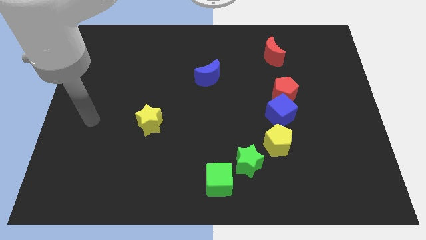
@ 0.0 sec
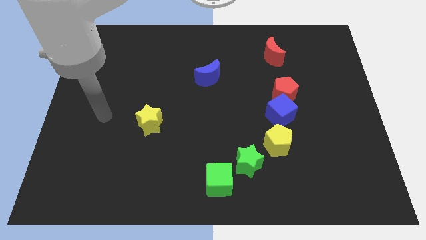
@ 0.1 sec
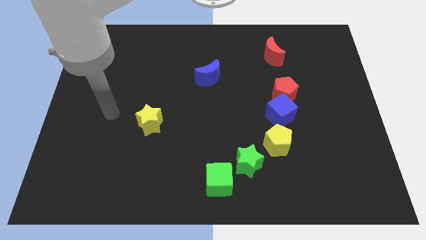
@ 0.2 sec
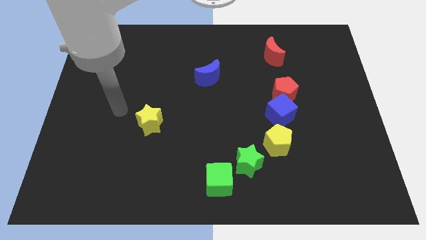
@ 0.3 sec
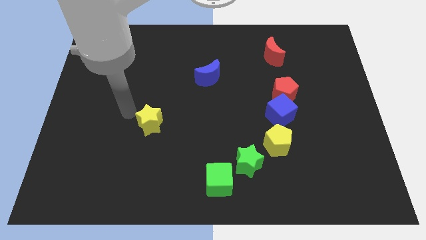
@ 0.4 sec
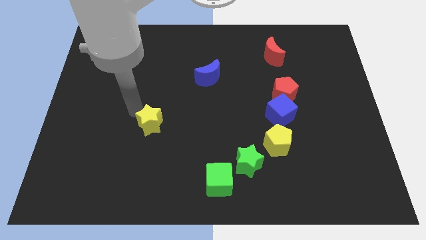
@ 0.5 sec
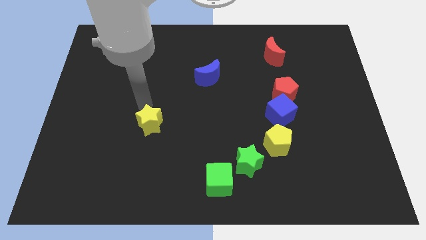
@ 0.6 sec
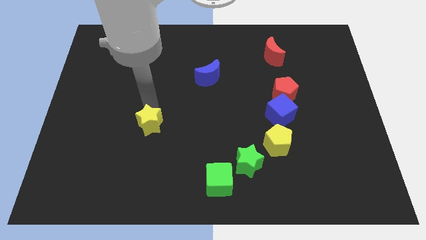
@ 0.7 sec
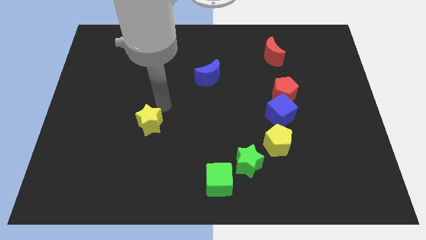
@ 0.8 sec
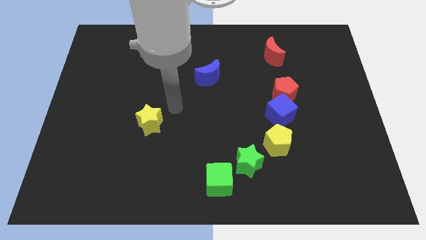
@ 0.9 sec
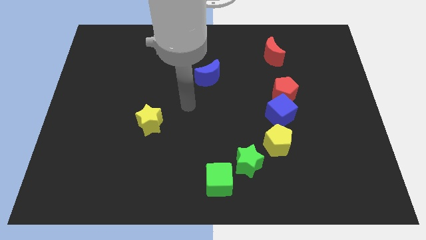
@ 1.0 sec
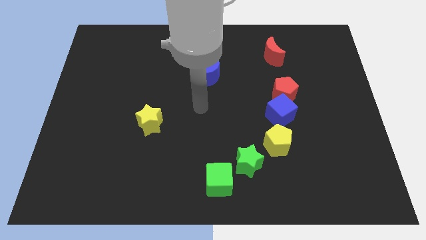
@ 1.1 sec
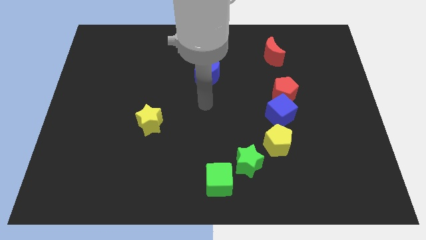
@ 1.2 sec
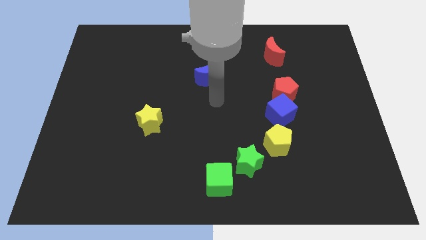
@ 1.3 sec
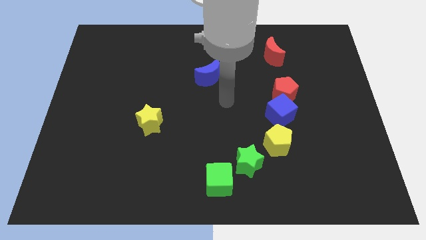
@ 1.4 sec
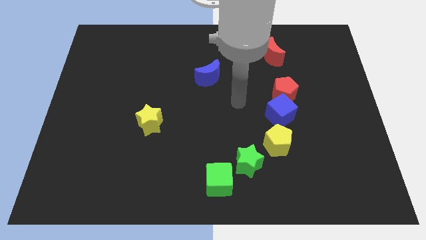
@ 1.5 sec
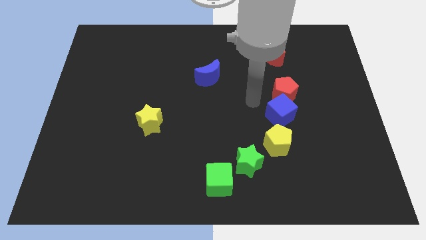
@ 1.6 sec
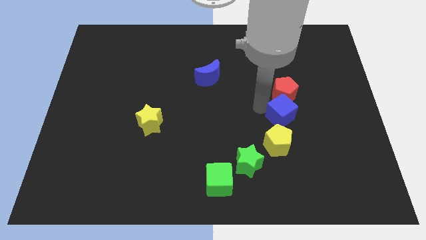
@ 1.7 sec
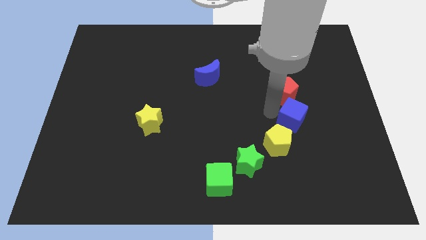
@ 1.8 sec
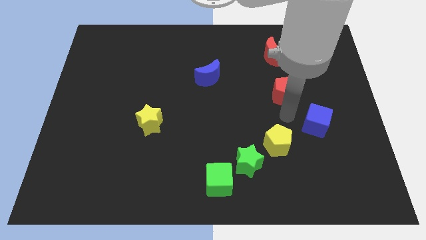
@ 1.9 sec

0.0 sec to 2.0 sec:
separate the red pentagon from the blue cube

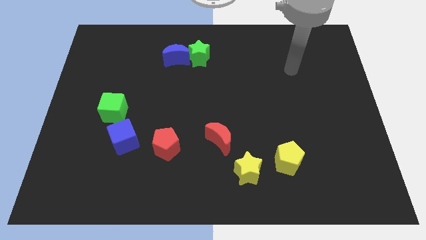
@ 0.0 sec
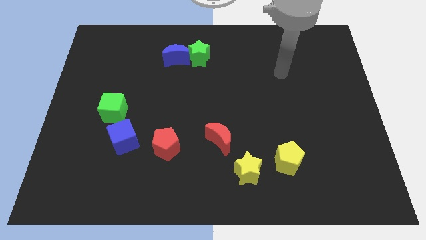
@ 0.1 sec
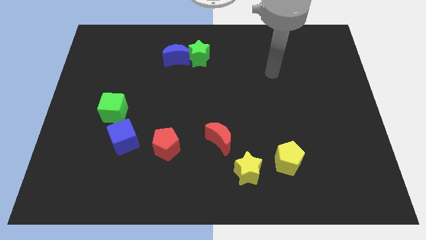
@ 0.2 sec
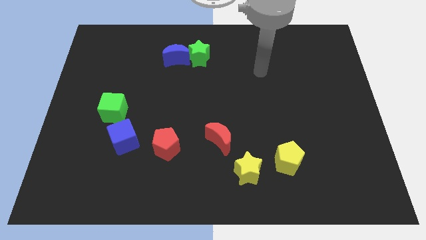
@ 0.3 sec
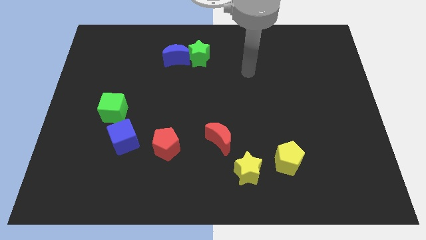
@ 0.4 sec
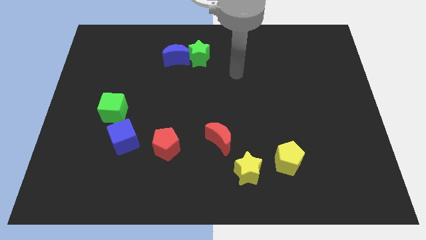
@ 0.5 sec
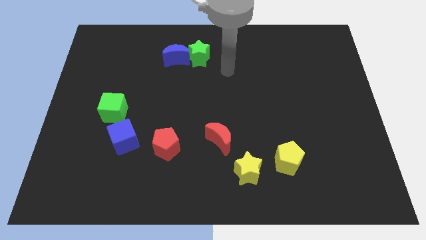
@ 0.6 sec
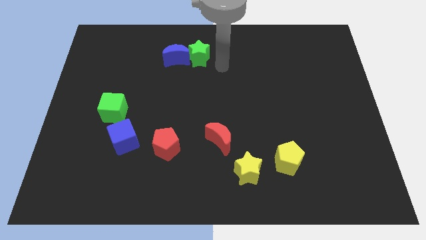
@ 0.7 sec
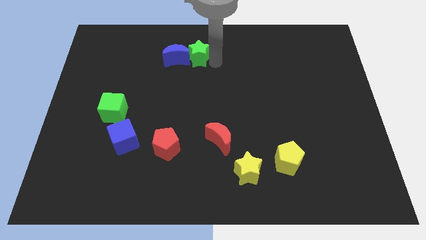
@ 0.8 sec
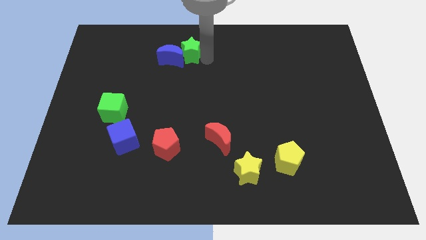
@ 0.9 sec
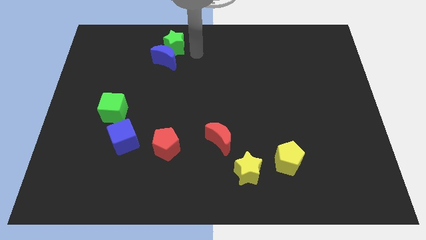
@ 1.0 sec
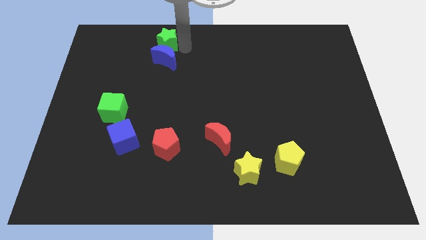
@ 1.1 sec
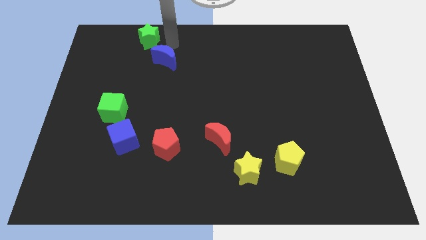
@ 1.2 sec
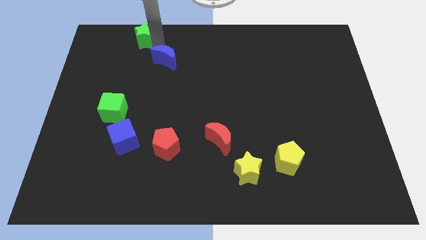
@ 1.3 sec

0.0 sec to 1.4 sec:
move the blue moon away from the green star

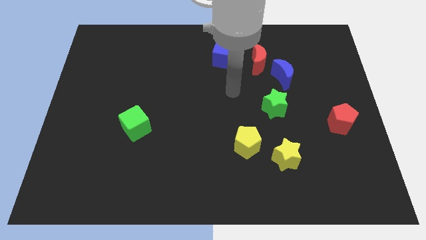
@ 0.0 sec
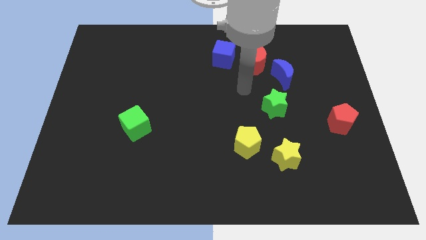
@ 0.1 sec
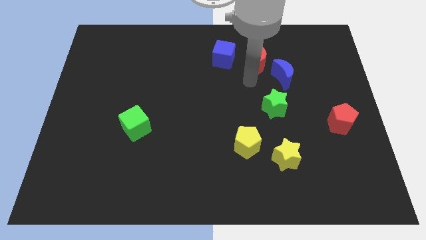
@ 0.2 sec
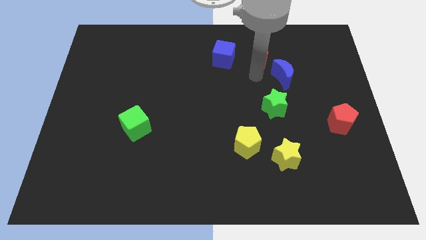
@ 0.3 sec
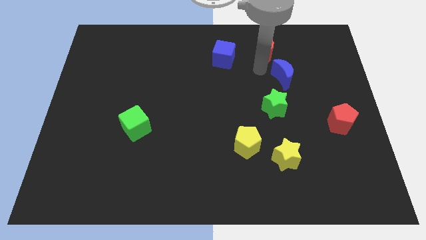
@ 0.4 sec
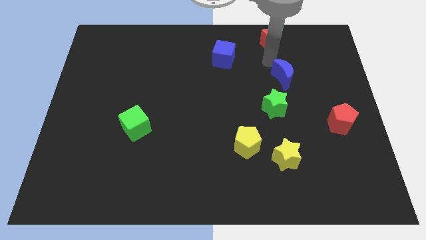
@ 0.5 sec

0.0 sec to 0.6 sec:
separate the blue moon from the red moon

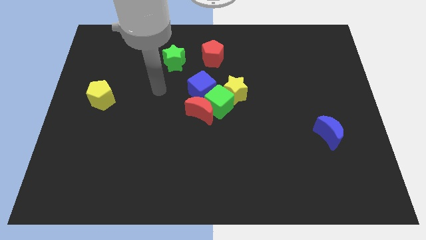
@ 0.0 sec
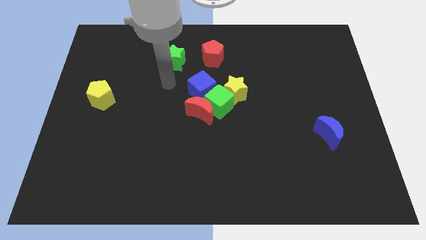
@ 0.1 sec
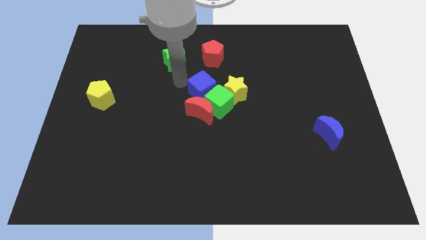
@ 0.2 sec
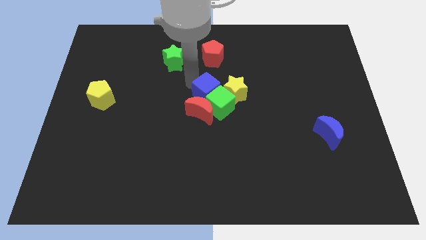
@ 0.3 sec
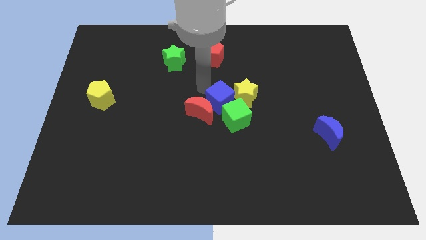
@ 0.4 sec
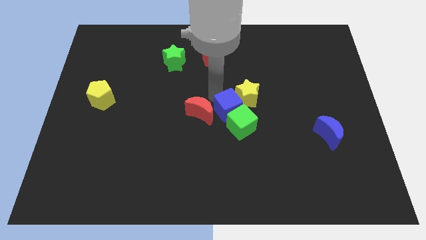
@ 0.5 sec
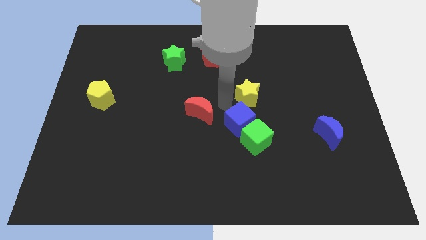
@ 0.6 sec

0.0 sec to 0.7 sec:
separate the green cube from the group

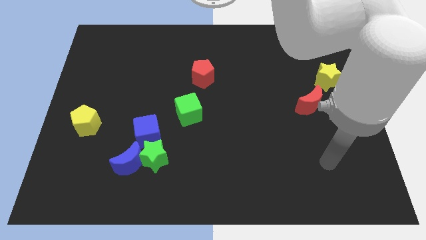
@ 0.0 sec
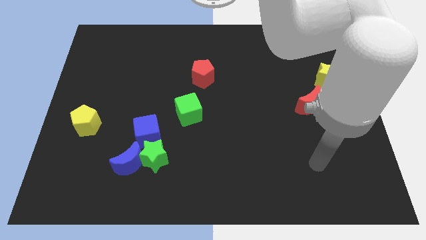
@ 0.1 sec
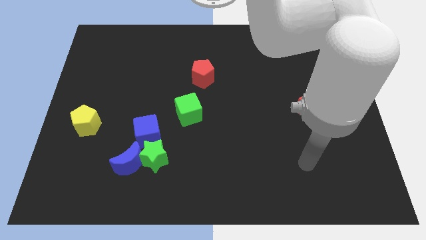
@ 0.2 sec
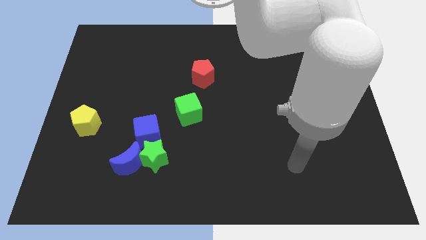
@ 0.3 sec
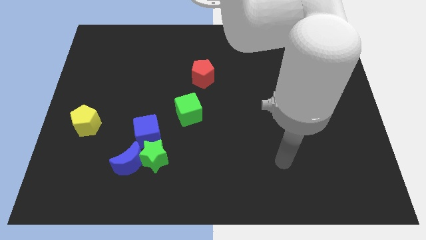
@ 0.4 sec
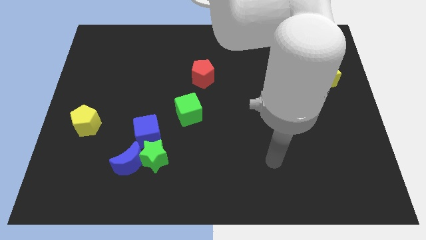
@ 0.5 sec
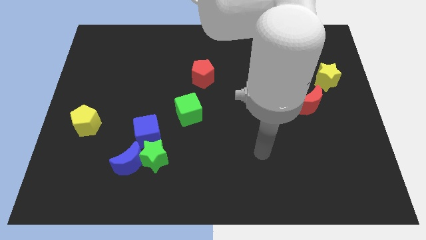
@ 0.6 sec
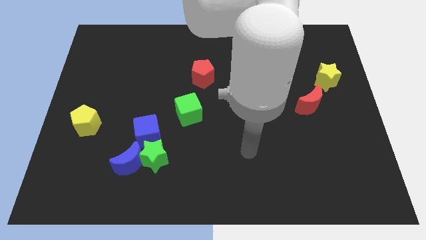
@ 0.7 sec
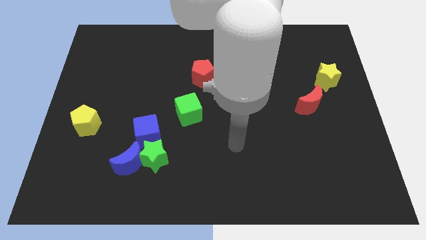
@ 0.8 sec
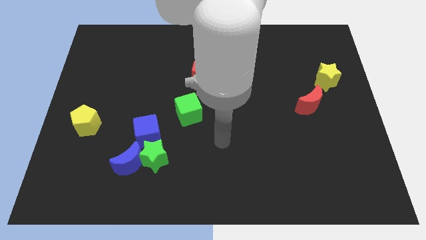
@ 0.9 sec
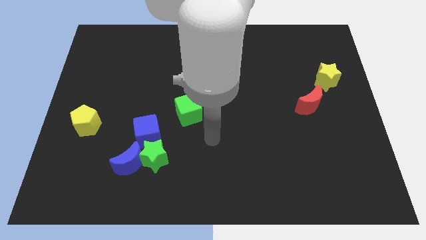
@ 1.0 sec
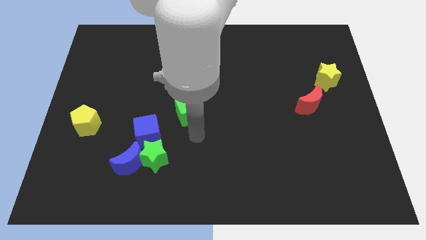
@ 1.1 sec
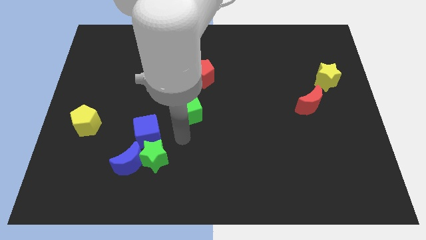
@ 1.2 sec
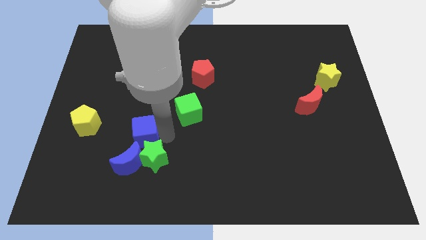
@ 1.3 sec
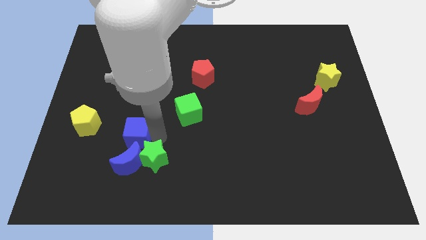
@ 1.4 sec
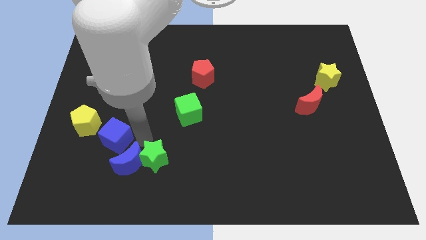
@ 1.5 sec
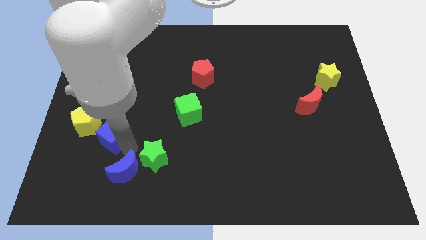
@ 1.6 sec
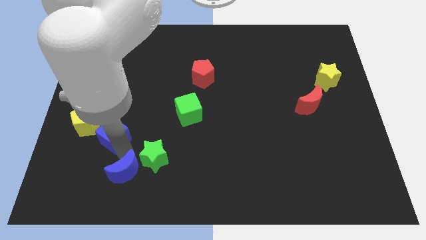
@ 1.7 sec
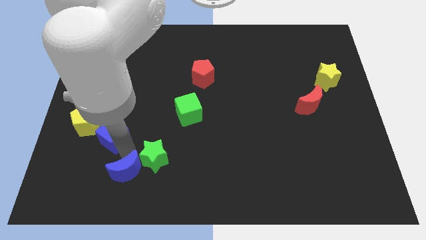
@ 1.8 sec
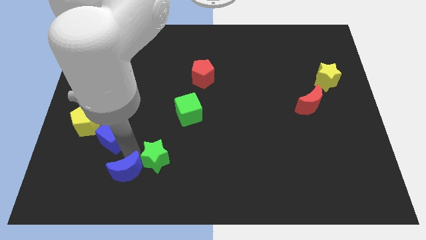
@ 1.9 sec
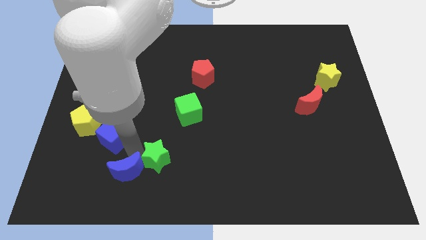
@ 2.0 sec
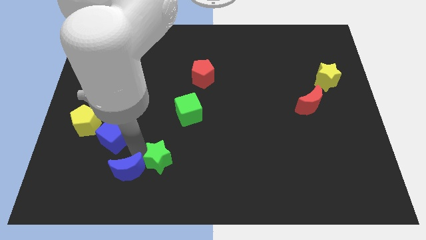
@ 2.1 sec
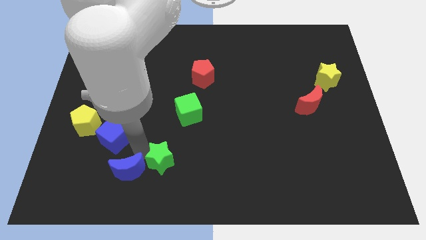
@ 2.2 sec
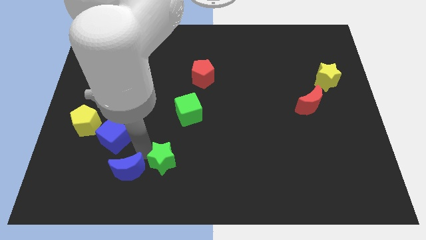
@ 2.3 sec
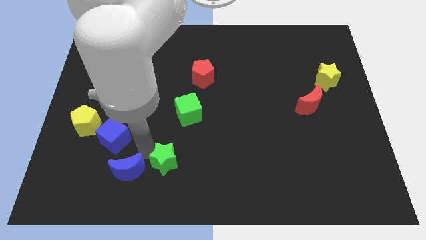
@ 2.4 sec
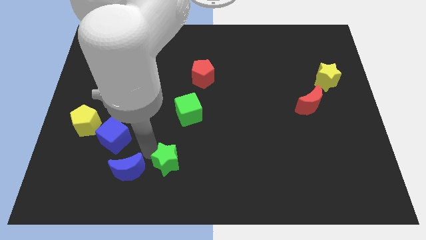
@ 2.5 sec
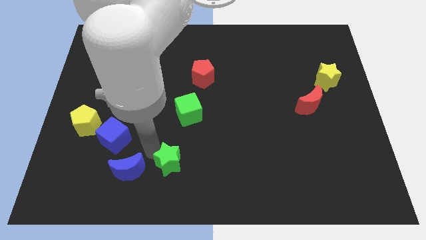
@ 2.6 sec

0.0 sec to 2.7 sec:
separate the green star from the blue moon and blue cube

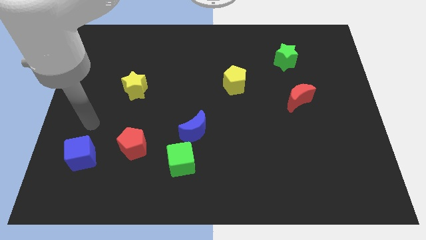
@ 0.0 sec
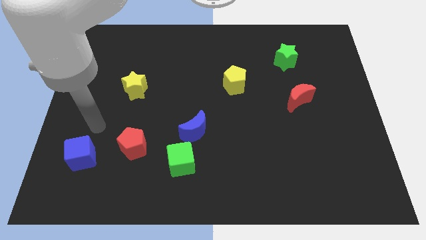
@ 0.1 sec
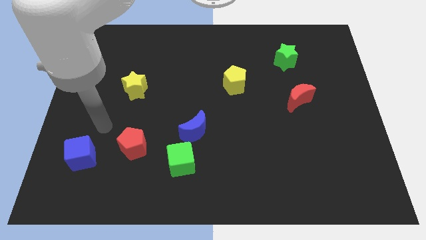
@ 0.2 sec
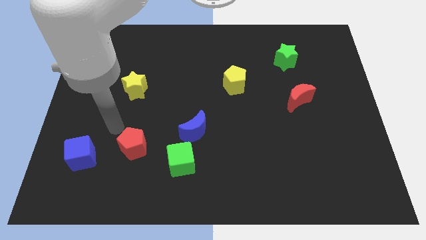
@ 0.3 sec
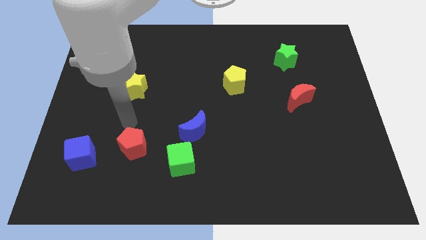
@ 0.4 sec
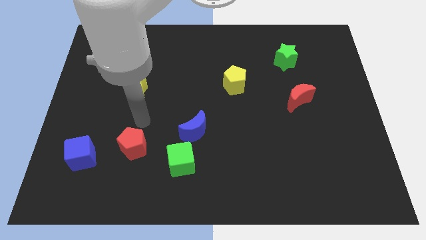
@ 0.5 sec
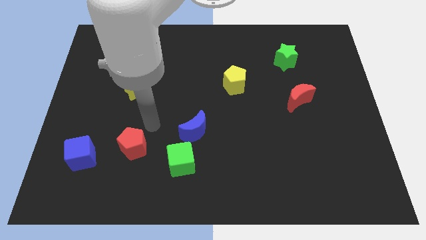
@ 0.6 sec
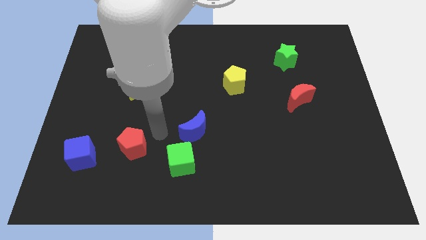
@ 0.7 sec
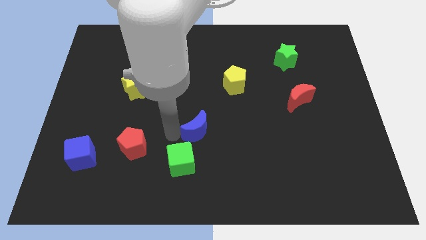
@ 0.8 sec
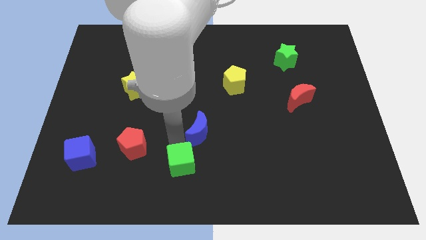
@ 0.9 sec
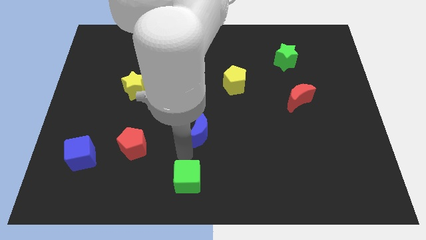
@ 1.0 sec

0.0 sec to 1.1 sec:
move the blue moon away from the green cube

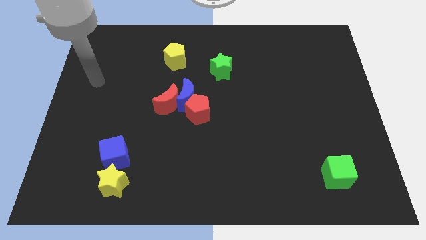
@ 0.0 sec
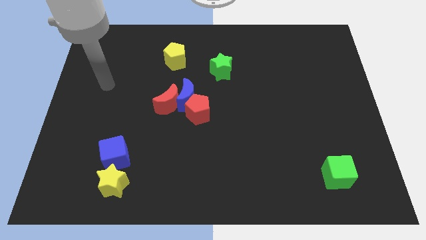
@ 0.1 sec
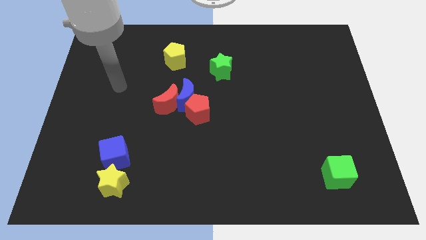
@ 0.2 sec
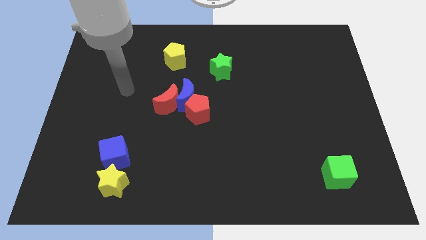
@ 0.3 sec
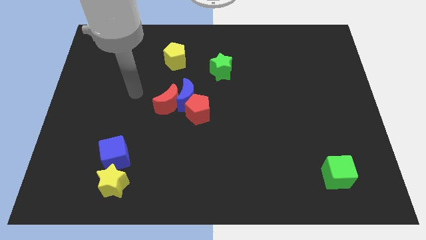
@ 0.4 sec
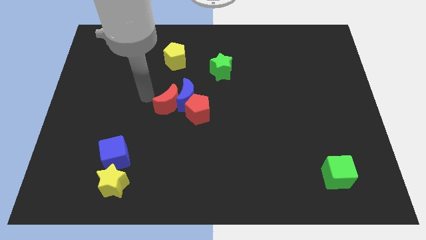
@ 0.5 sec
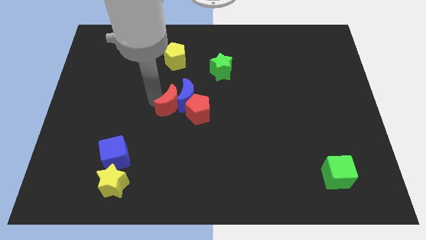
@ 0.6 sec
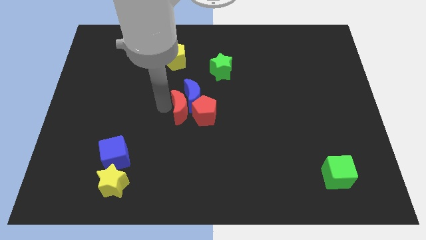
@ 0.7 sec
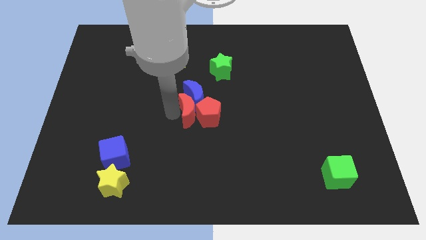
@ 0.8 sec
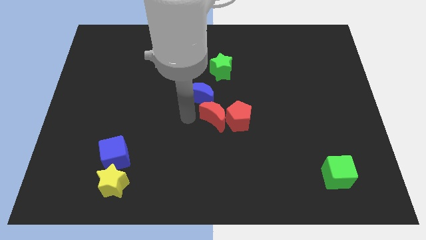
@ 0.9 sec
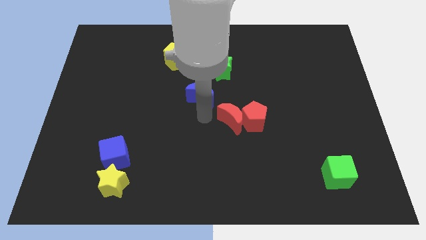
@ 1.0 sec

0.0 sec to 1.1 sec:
pull the blue moon apart from the red moon and red pentagon
